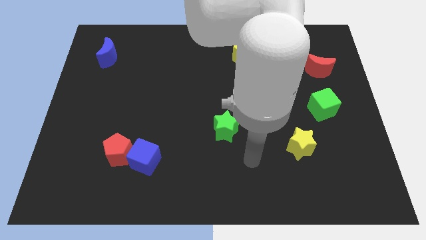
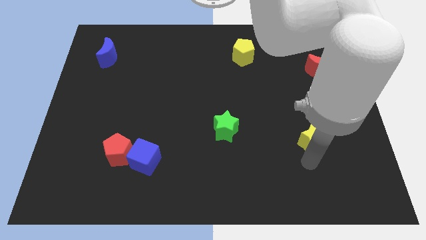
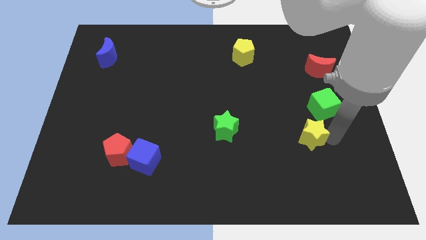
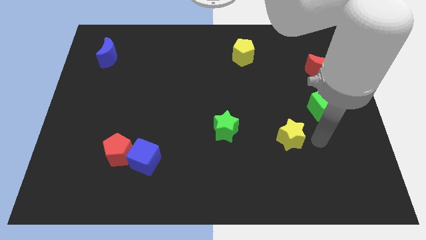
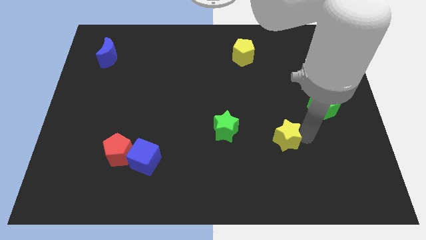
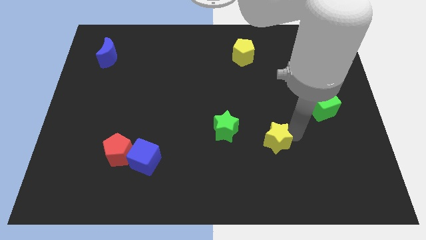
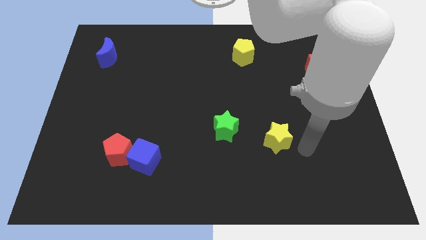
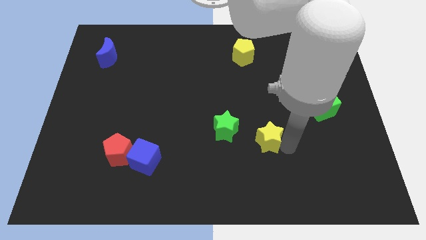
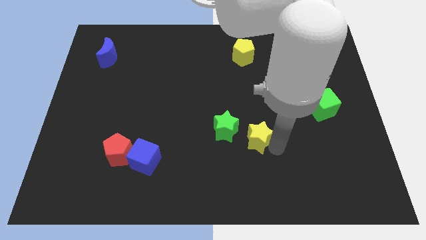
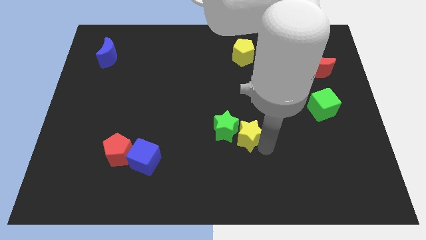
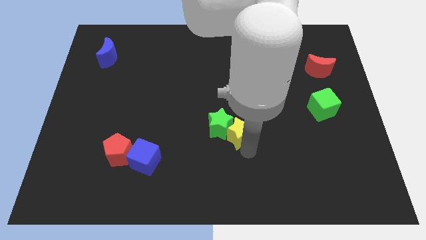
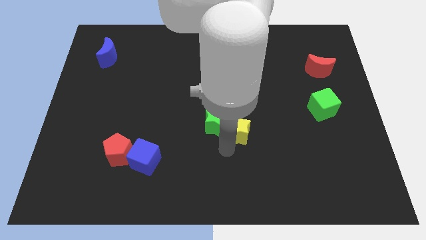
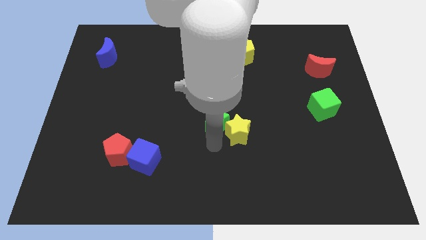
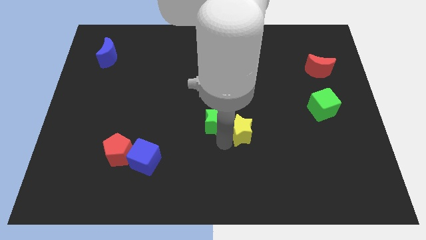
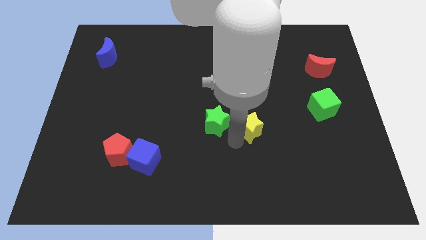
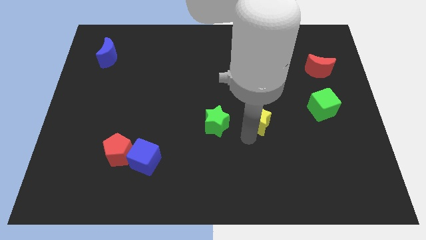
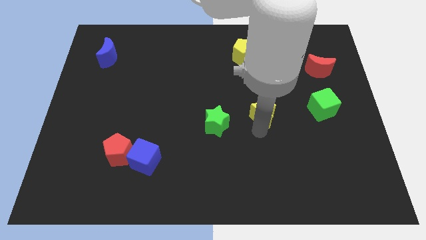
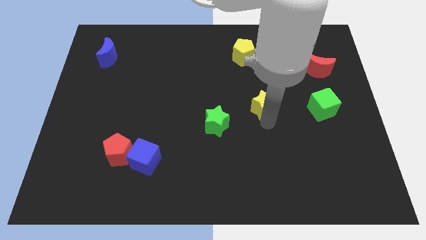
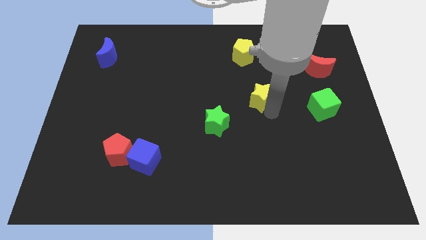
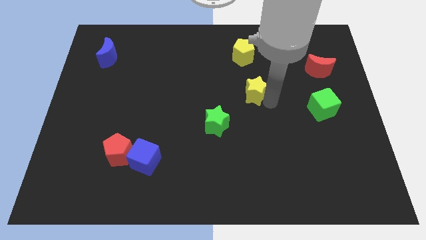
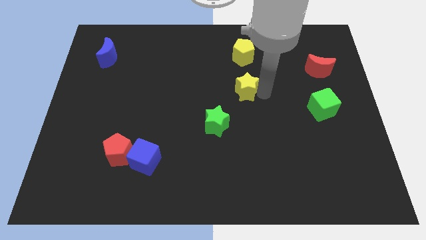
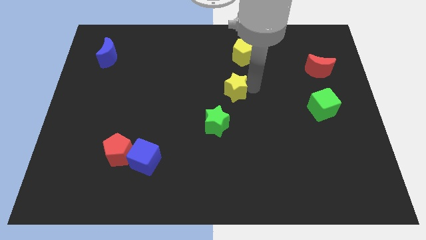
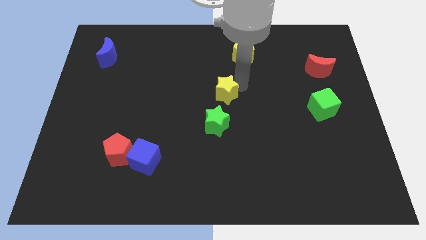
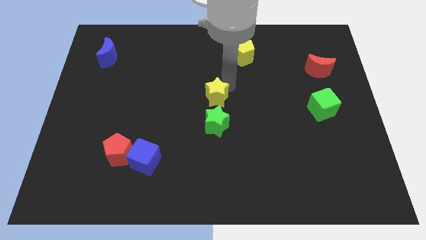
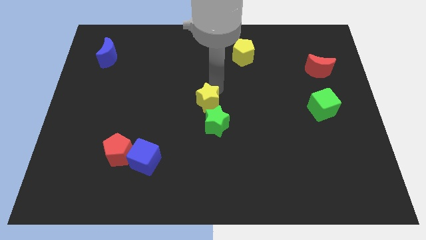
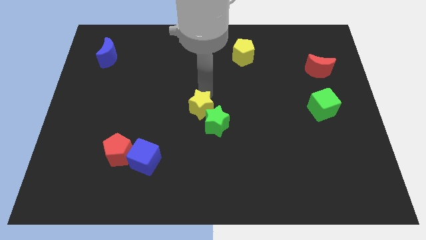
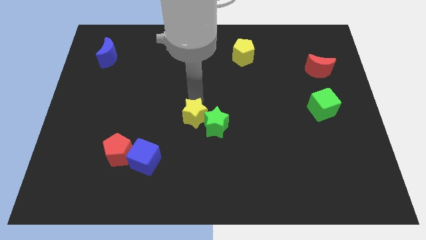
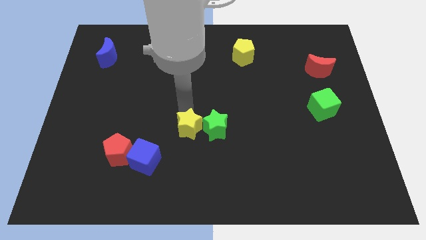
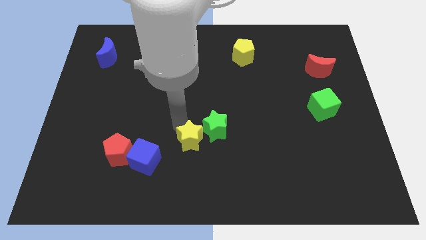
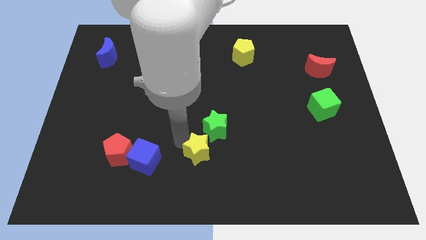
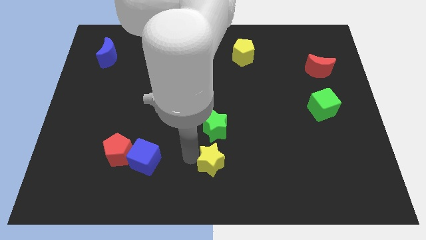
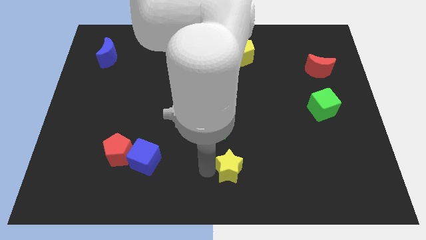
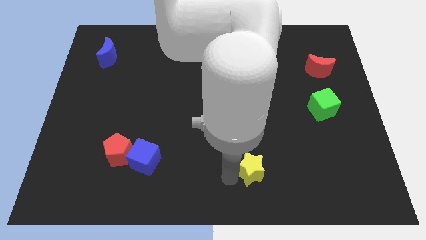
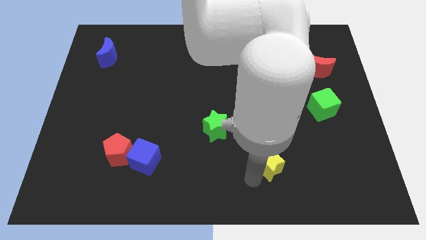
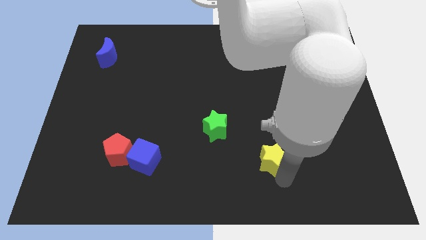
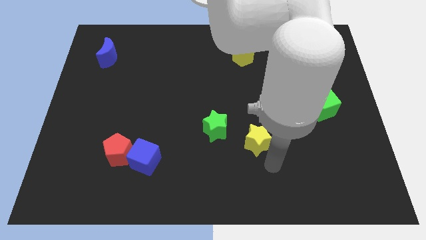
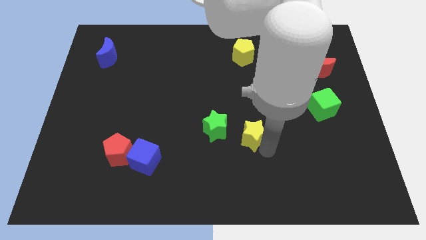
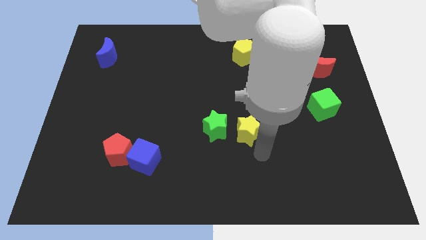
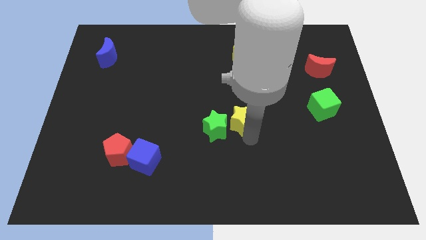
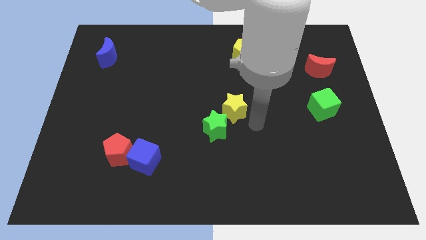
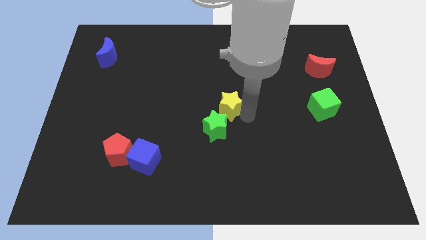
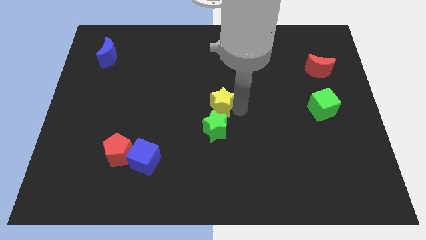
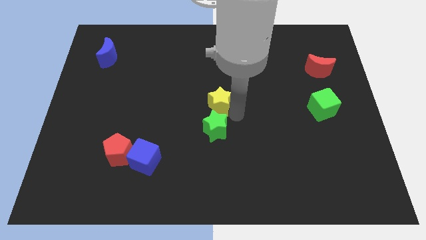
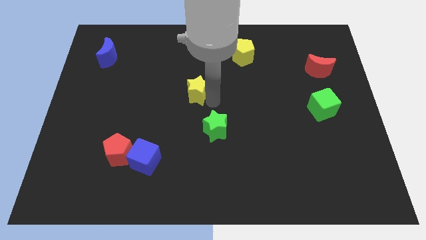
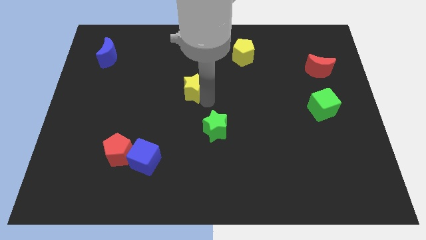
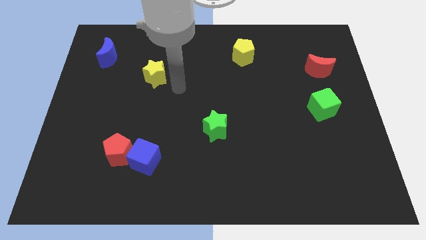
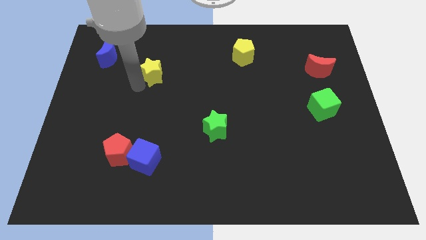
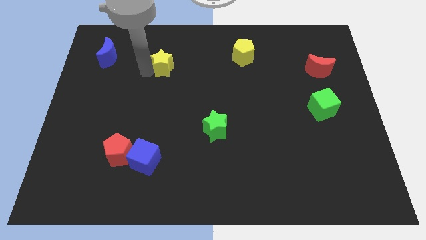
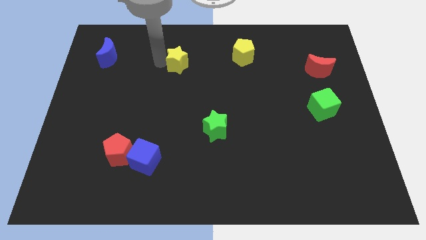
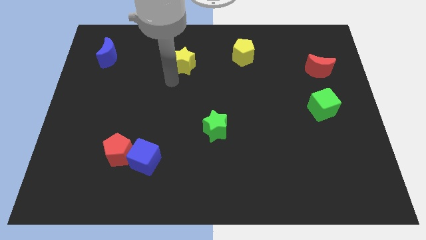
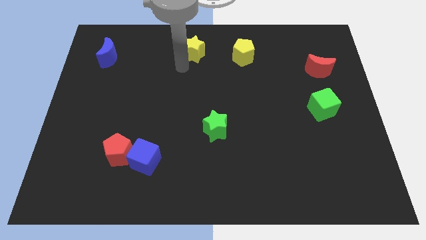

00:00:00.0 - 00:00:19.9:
put the yellow star to the top

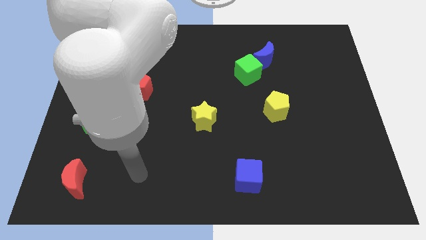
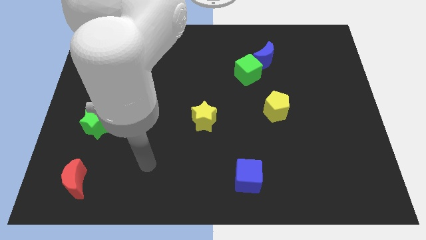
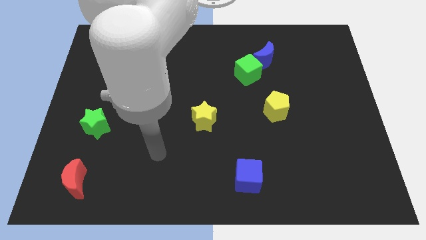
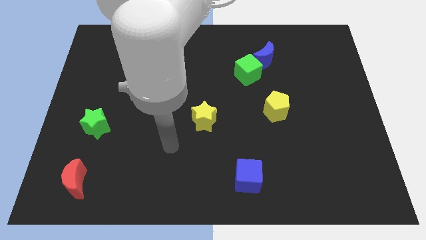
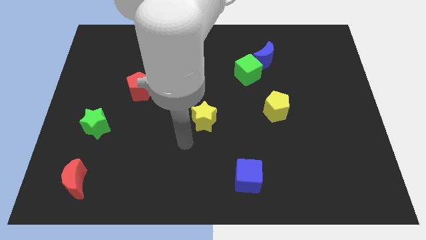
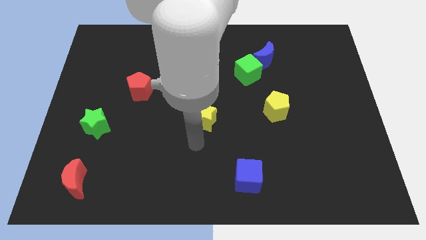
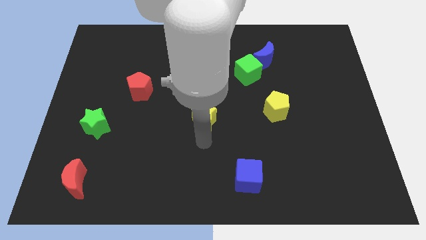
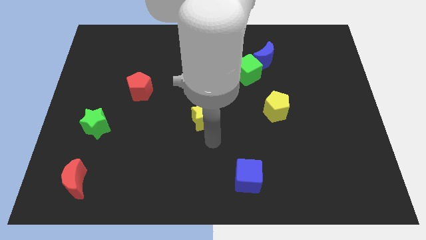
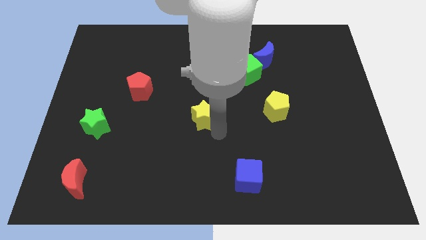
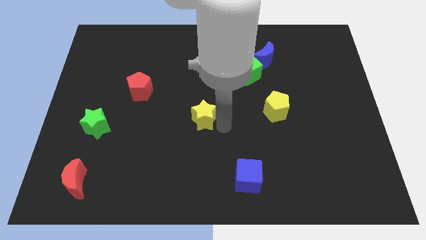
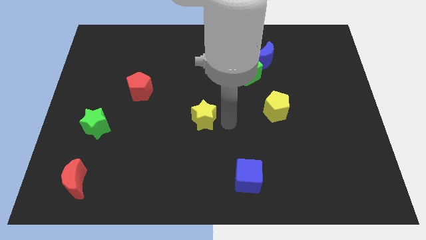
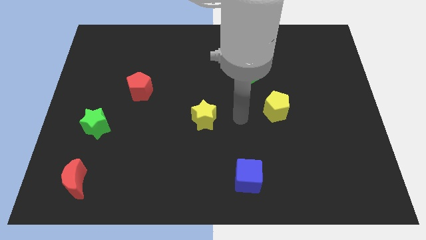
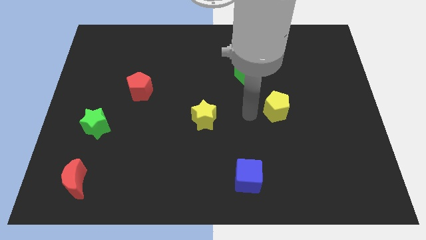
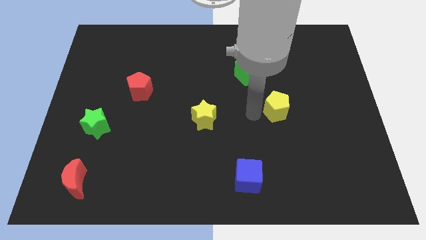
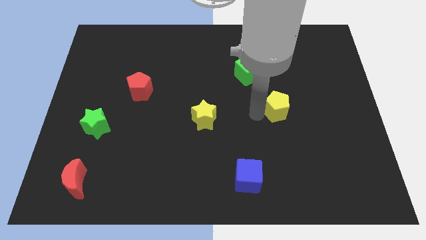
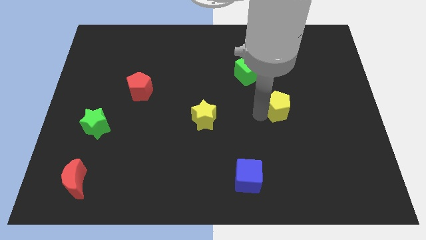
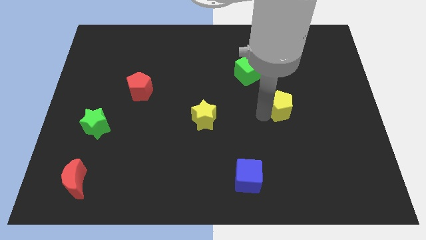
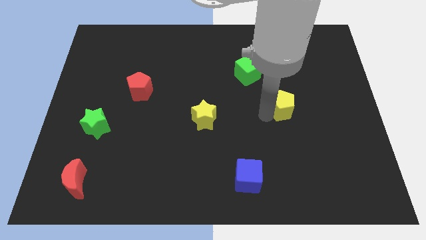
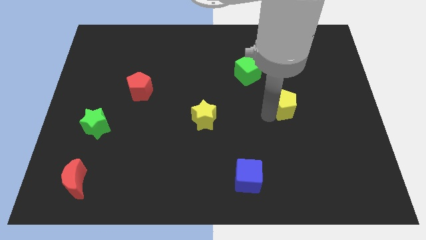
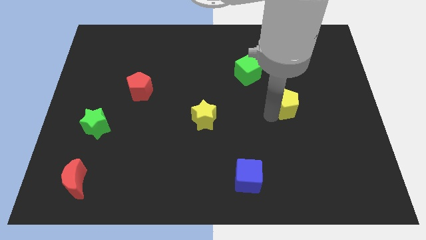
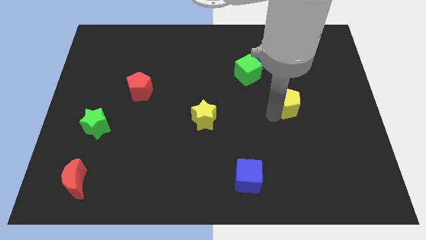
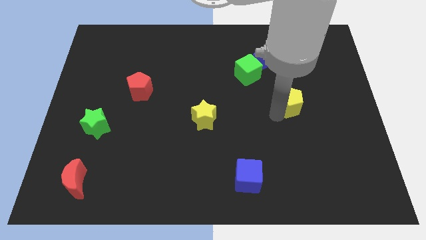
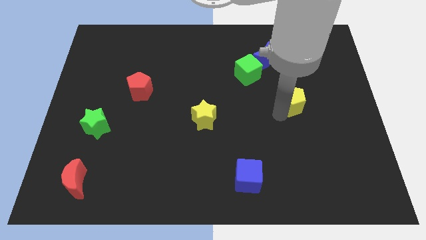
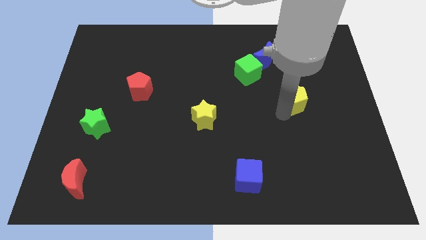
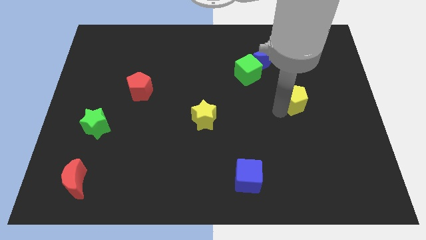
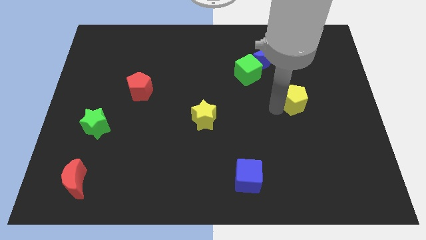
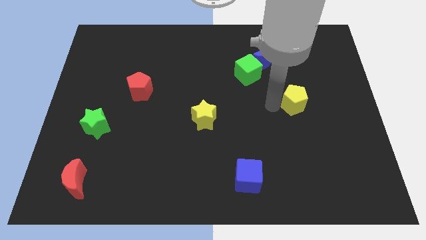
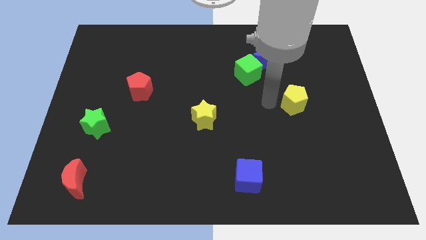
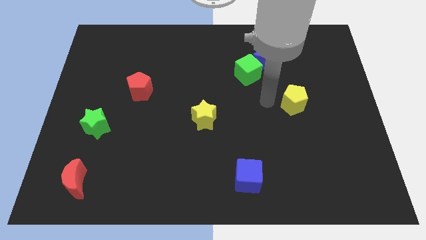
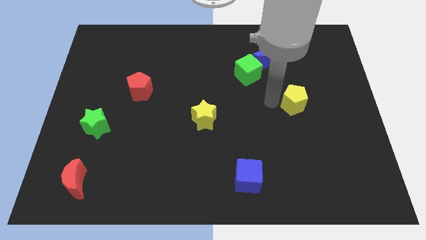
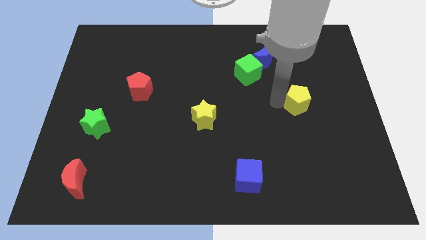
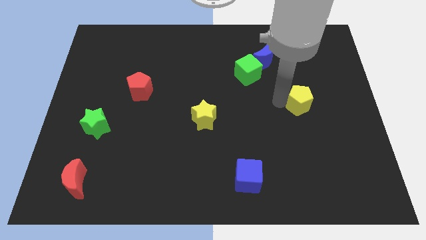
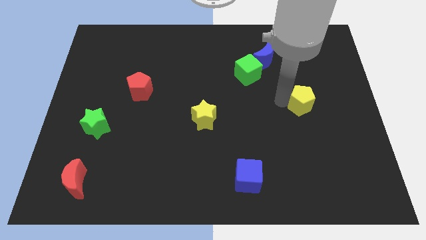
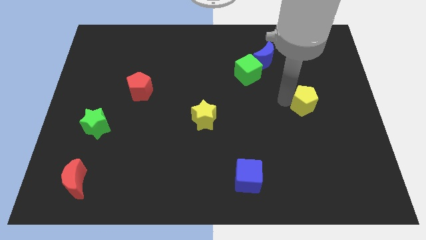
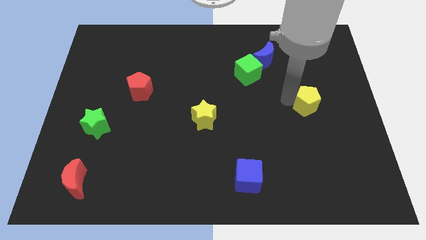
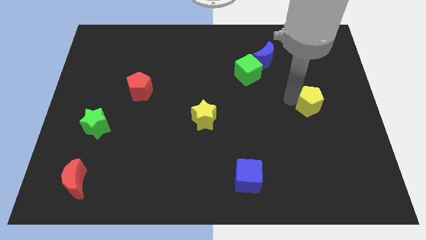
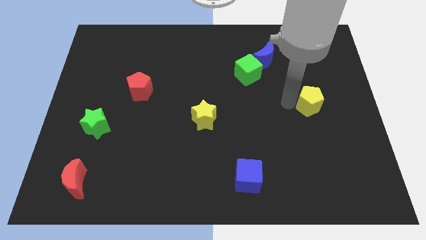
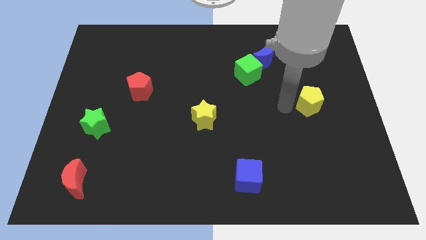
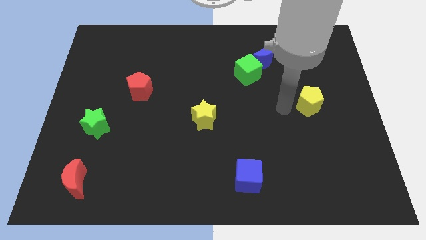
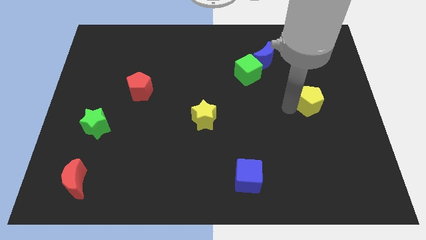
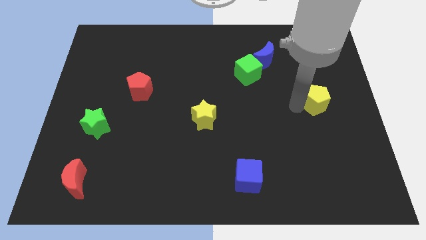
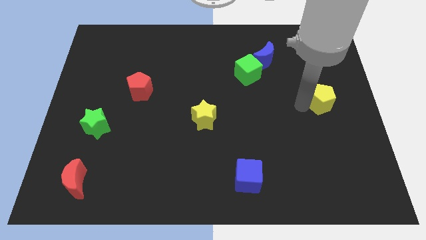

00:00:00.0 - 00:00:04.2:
slide the yellow pentagon to the center right
